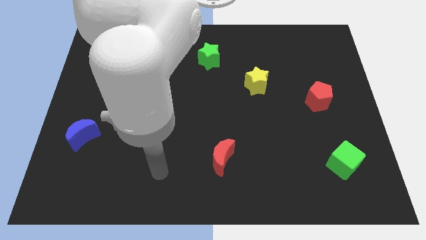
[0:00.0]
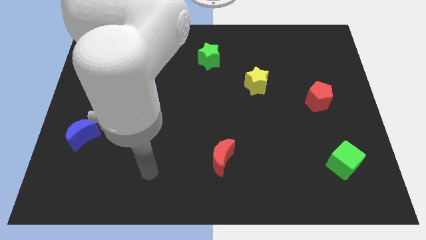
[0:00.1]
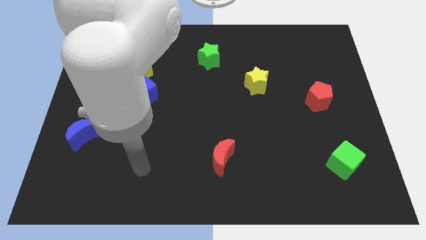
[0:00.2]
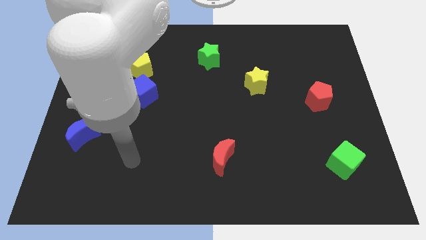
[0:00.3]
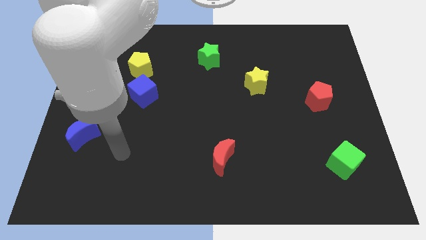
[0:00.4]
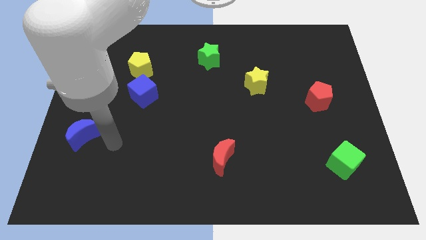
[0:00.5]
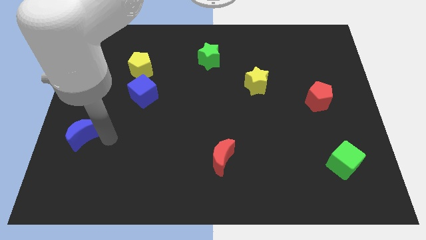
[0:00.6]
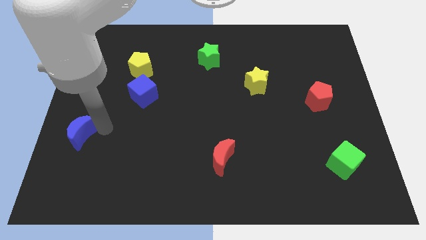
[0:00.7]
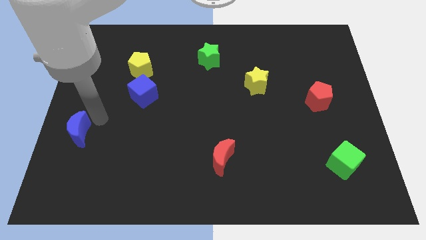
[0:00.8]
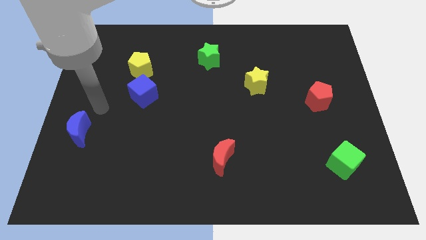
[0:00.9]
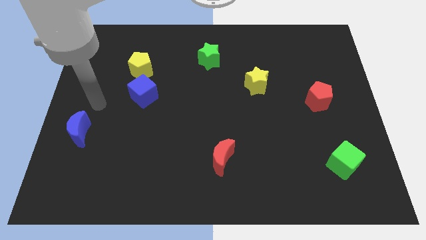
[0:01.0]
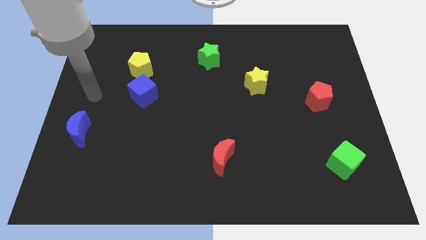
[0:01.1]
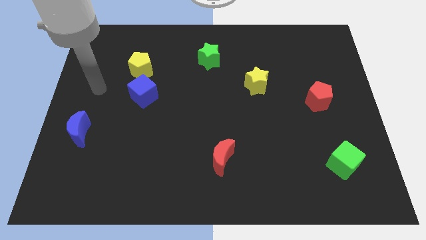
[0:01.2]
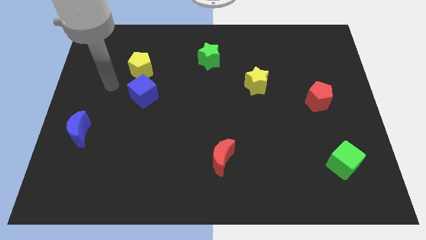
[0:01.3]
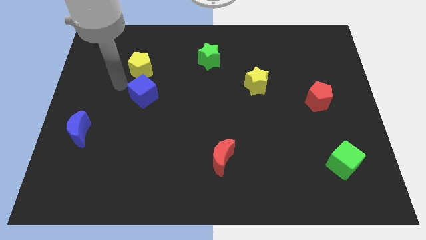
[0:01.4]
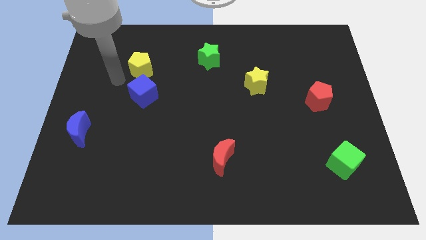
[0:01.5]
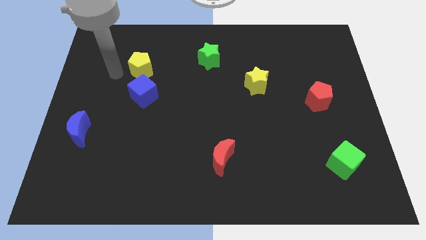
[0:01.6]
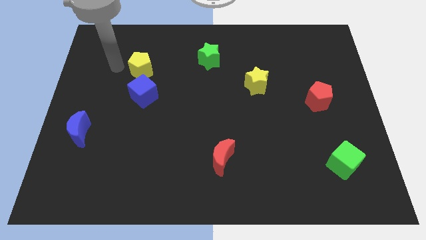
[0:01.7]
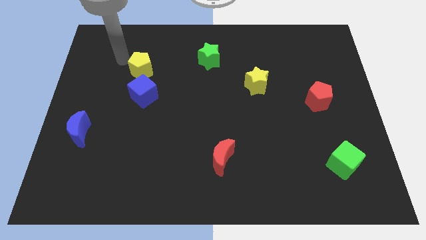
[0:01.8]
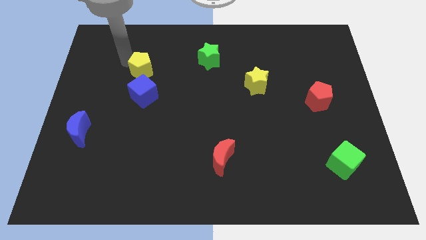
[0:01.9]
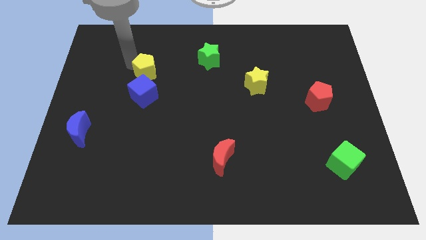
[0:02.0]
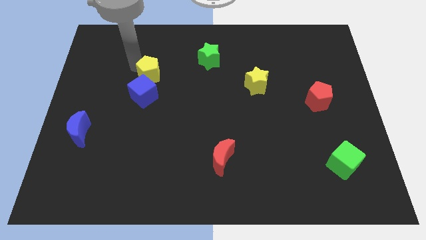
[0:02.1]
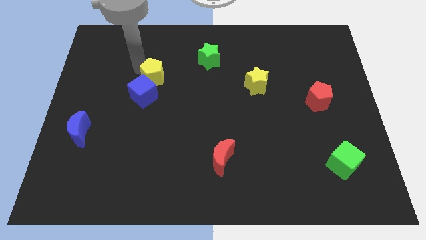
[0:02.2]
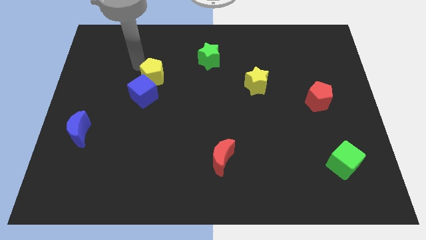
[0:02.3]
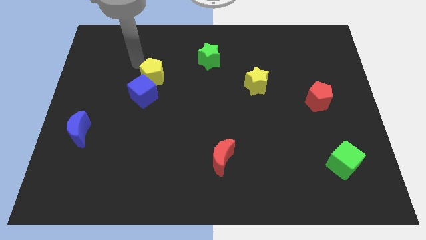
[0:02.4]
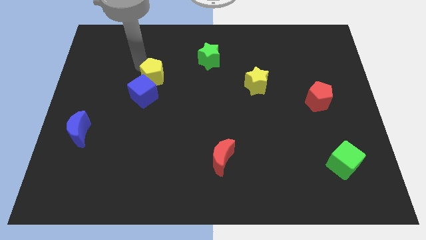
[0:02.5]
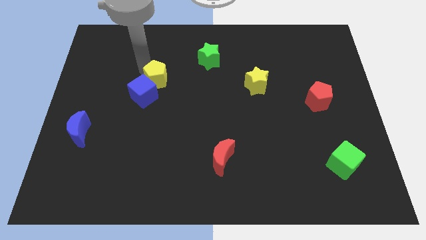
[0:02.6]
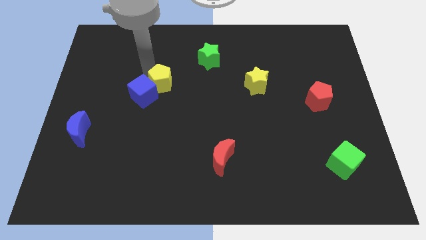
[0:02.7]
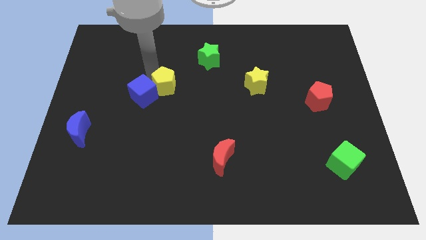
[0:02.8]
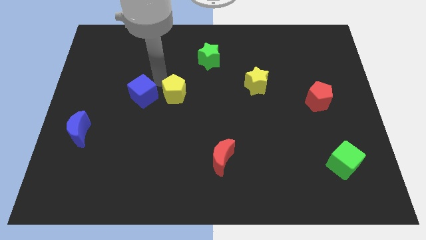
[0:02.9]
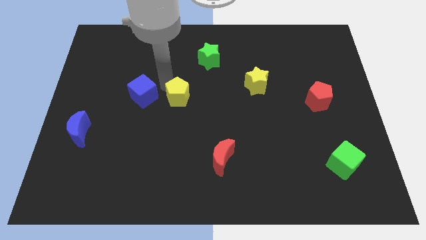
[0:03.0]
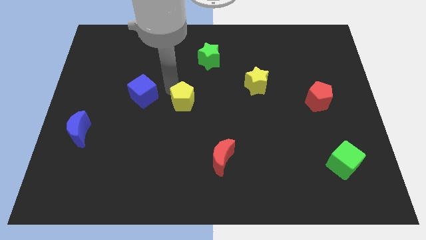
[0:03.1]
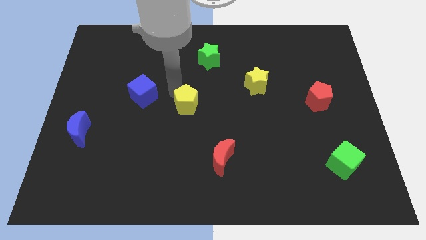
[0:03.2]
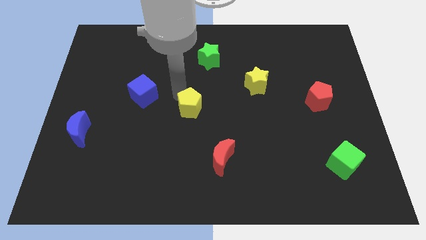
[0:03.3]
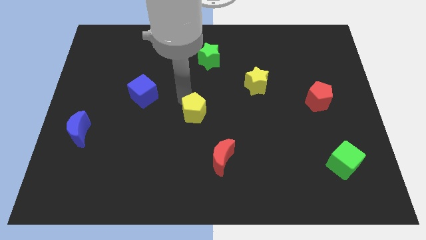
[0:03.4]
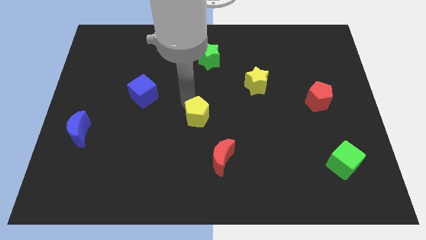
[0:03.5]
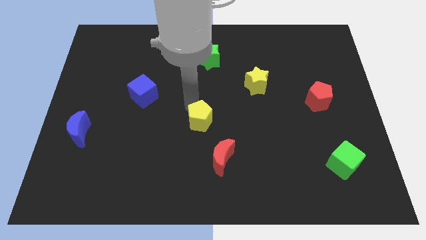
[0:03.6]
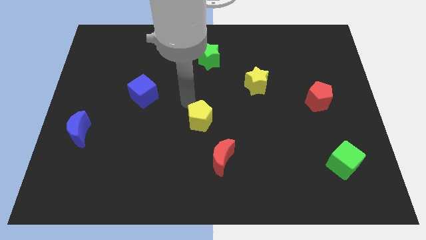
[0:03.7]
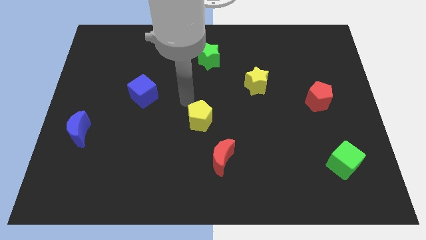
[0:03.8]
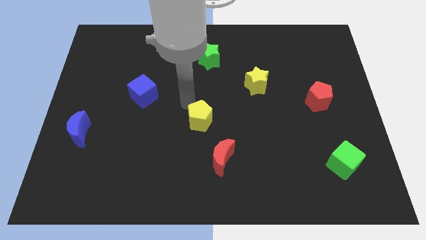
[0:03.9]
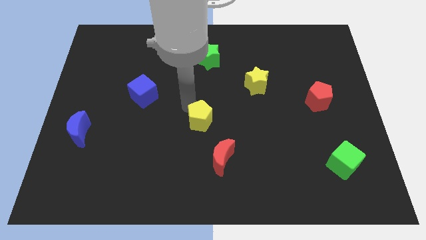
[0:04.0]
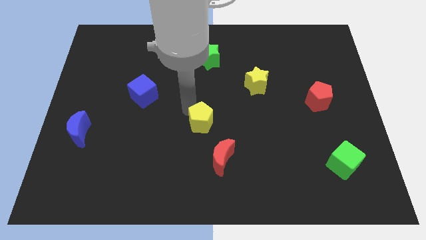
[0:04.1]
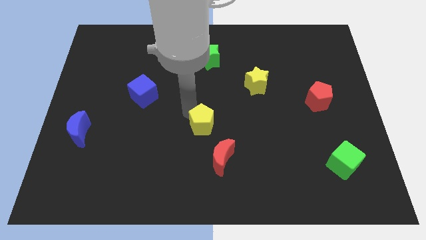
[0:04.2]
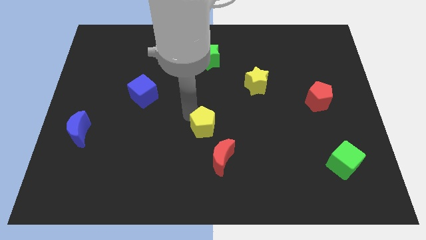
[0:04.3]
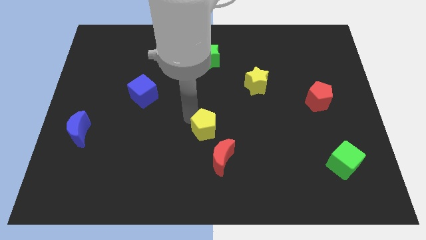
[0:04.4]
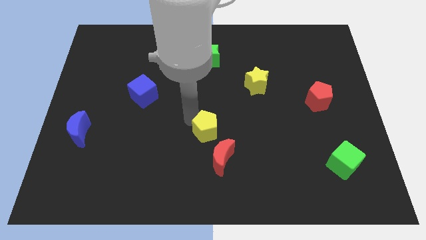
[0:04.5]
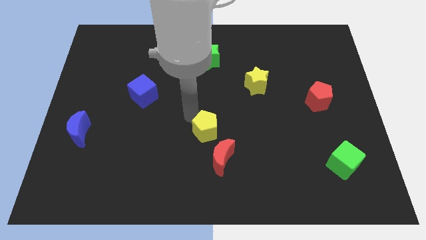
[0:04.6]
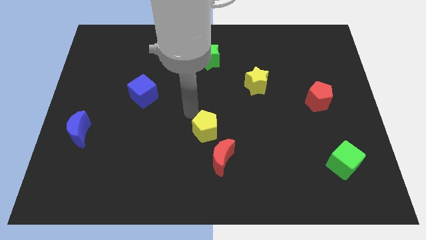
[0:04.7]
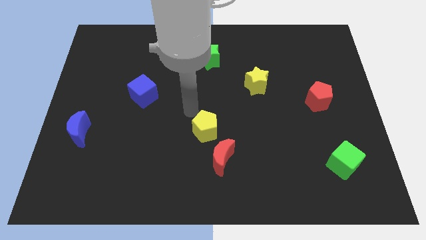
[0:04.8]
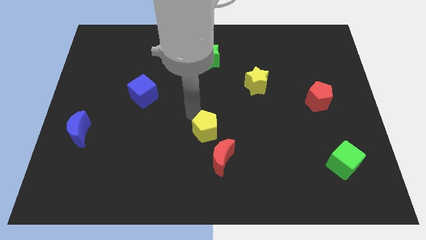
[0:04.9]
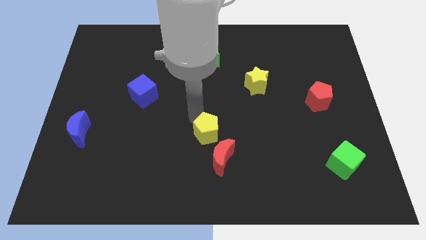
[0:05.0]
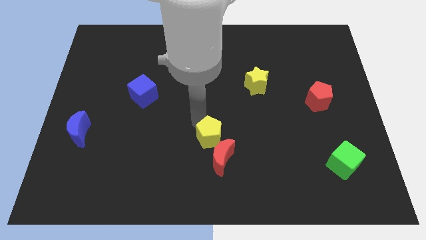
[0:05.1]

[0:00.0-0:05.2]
push the yellow pentagon to the red moon

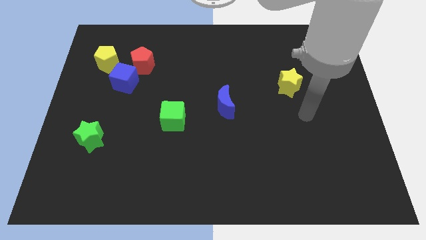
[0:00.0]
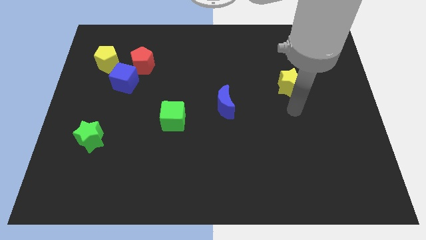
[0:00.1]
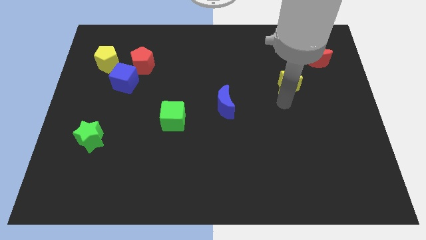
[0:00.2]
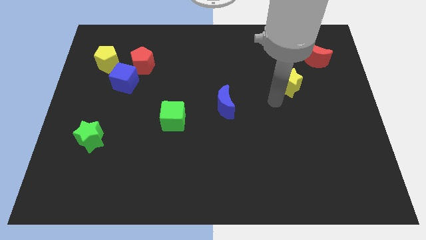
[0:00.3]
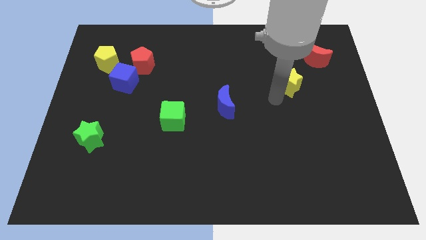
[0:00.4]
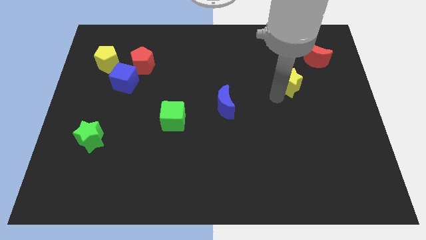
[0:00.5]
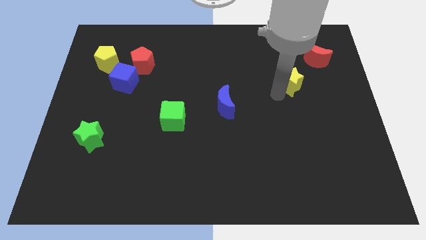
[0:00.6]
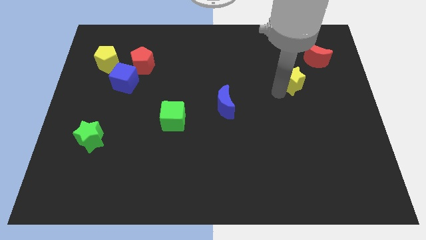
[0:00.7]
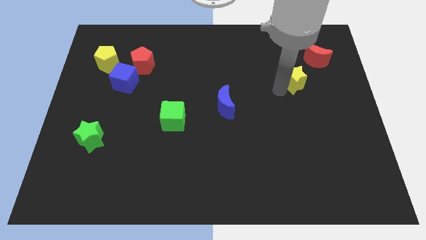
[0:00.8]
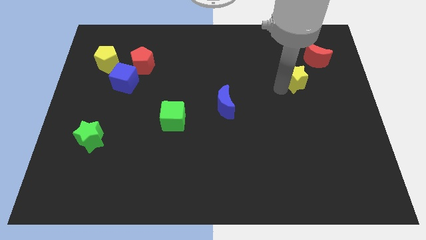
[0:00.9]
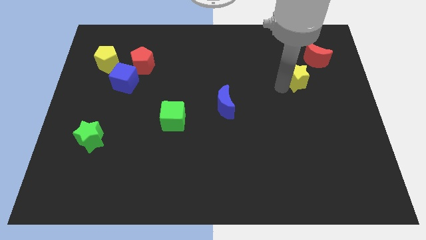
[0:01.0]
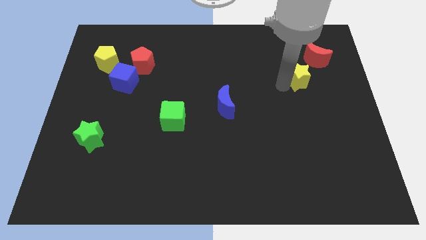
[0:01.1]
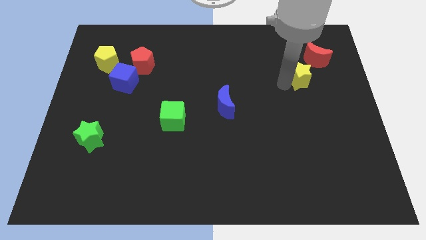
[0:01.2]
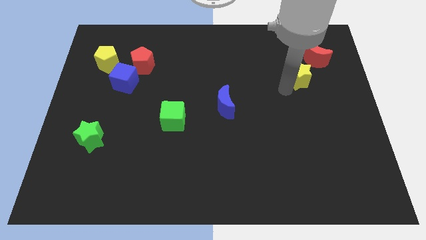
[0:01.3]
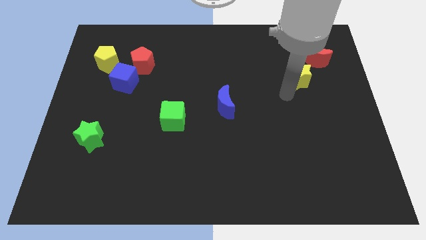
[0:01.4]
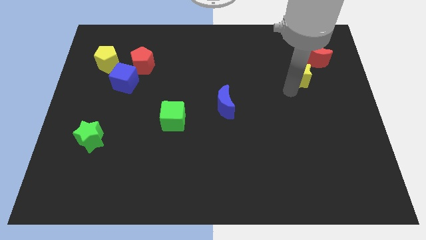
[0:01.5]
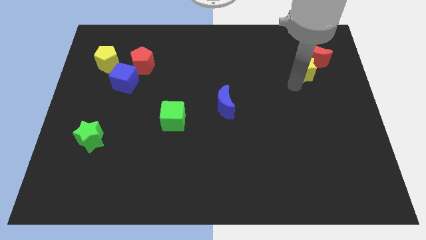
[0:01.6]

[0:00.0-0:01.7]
slide the yellow star towards the red moon
